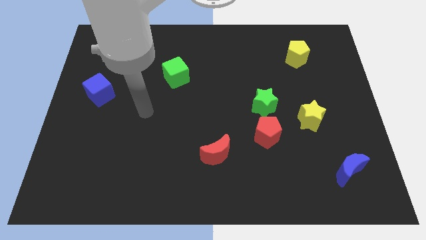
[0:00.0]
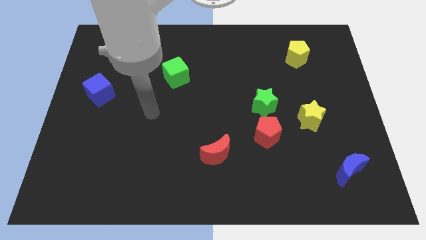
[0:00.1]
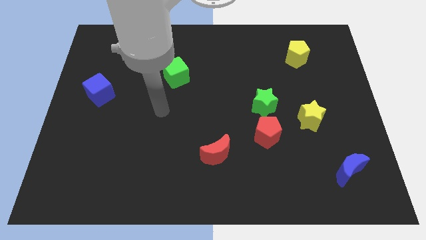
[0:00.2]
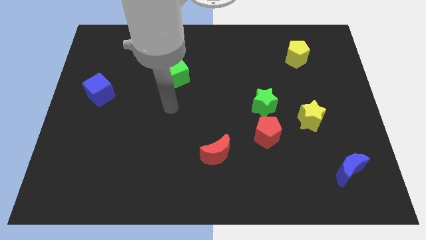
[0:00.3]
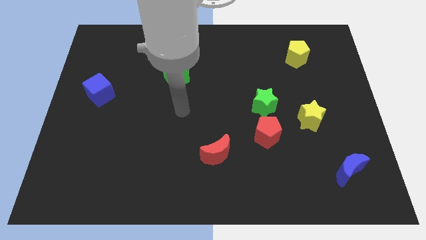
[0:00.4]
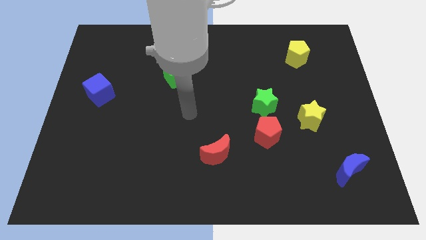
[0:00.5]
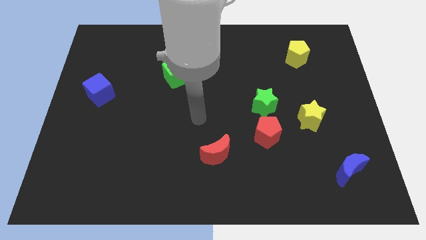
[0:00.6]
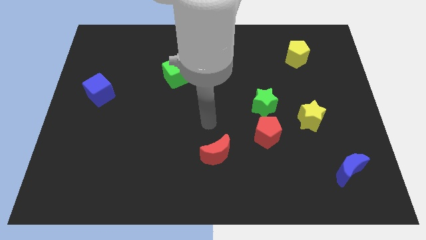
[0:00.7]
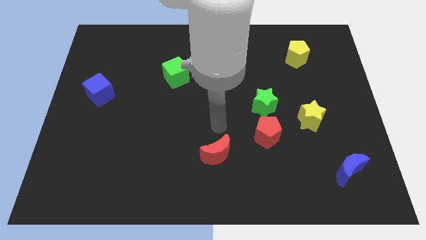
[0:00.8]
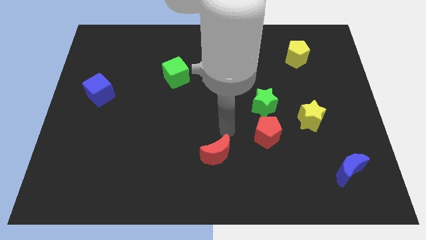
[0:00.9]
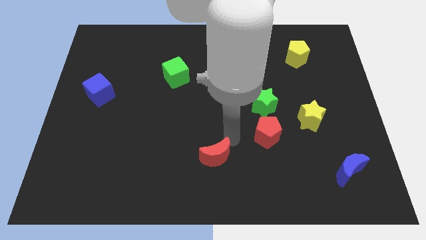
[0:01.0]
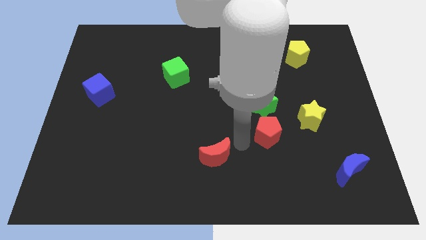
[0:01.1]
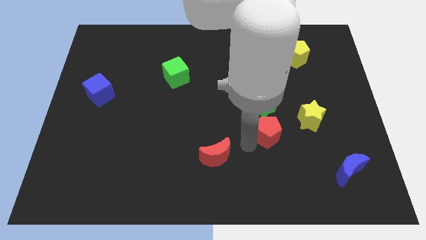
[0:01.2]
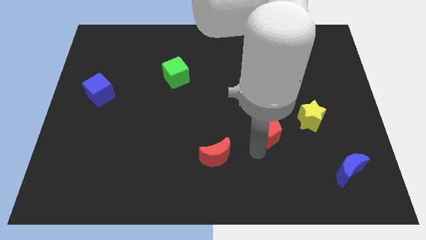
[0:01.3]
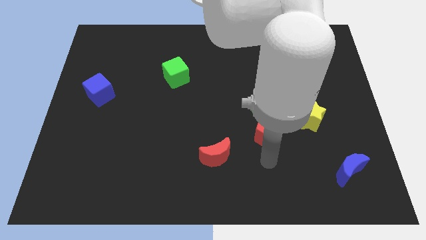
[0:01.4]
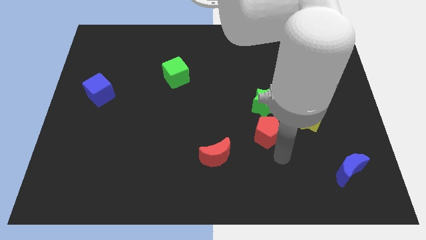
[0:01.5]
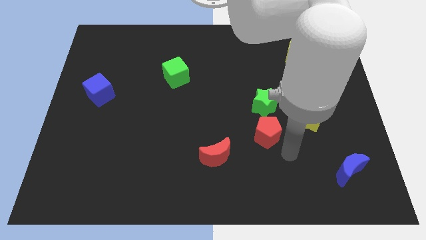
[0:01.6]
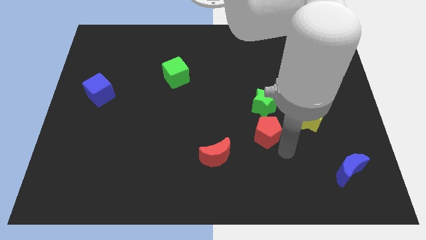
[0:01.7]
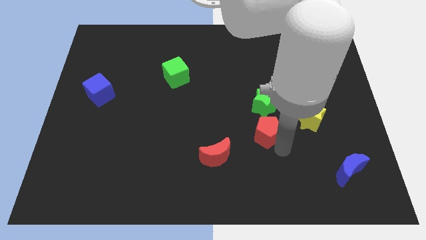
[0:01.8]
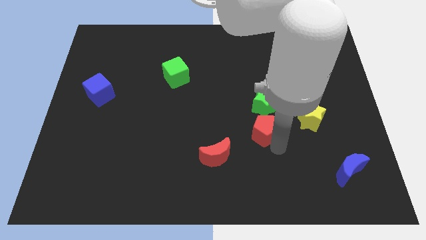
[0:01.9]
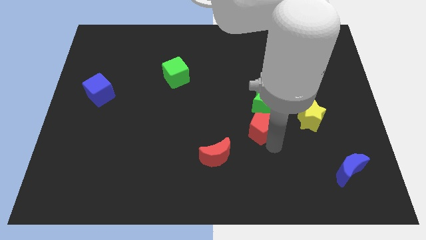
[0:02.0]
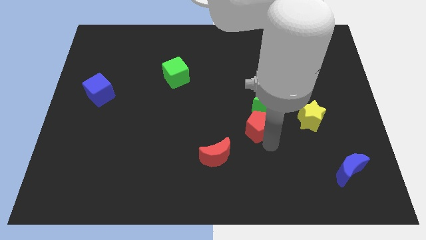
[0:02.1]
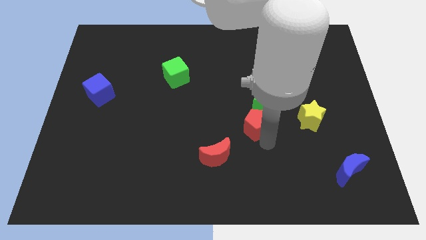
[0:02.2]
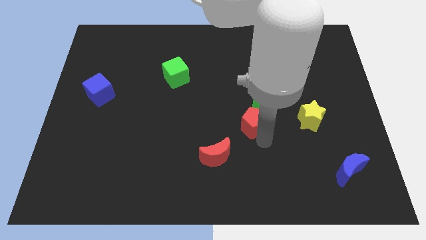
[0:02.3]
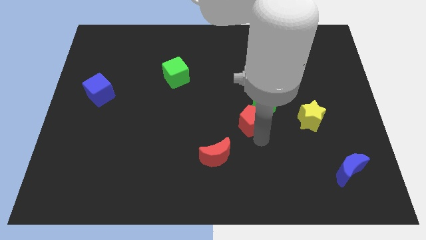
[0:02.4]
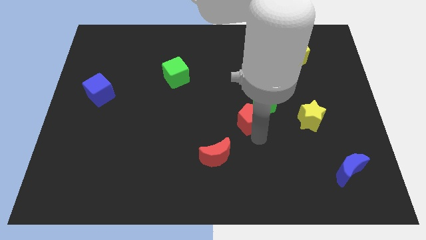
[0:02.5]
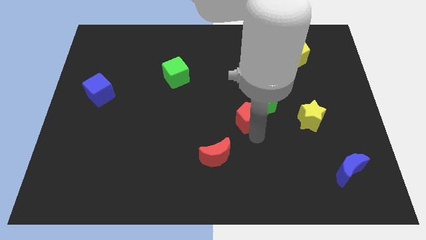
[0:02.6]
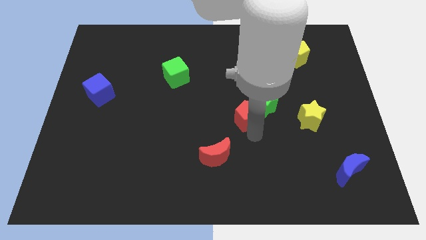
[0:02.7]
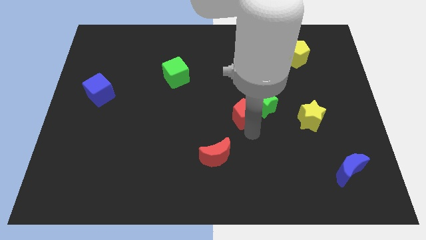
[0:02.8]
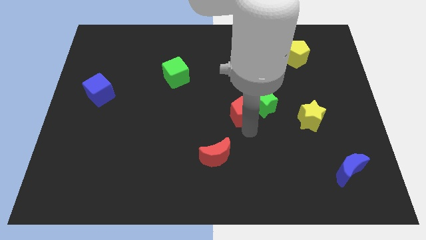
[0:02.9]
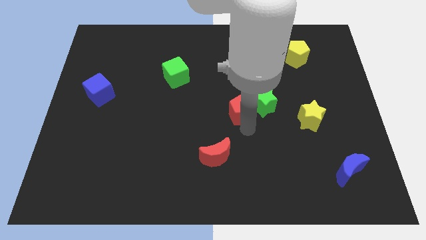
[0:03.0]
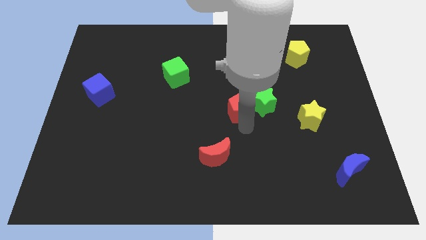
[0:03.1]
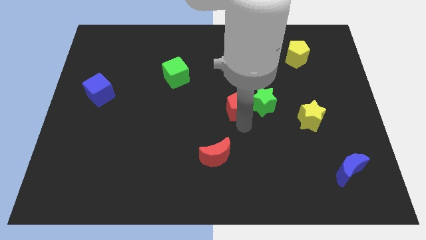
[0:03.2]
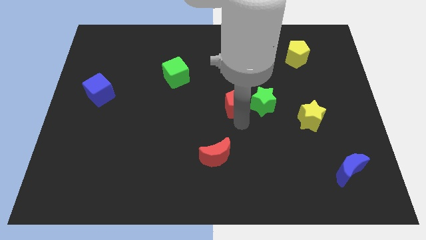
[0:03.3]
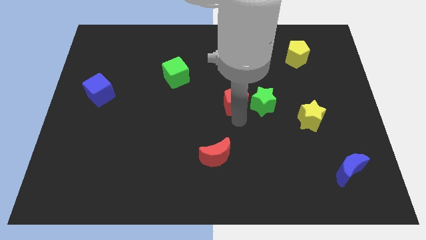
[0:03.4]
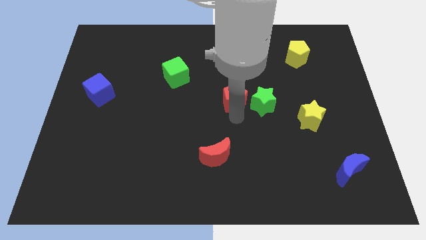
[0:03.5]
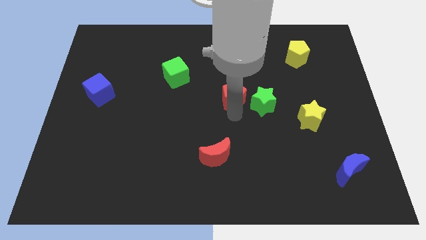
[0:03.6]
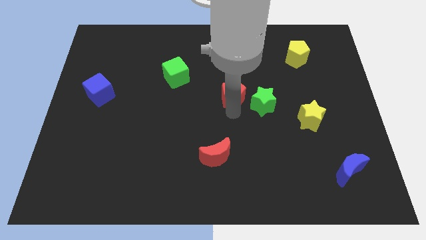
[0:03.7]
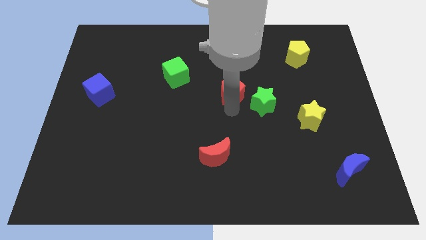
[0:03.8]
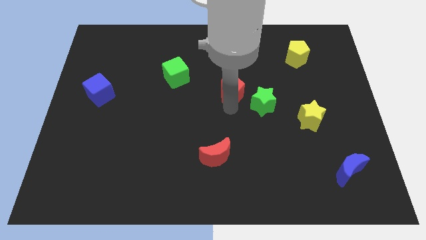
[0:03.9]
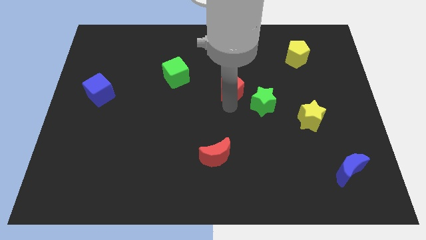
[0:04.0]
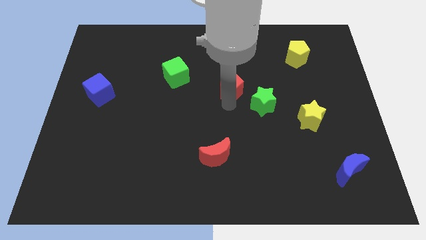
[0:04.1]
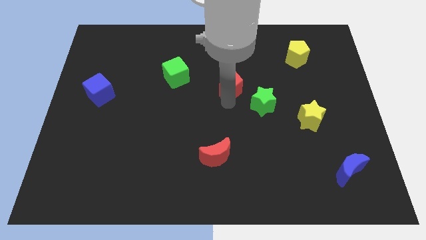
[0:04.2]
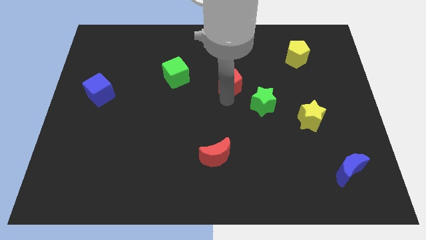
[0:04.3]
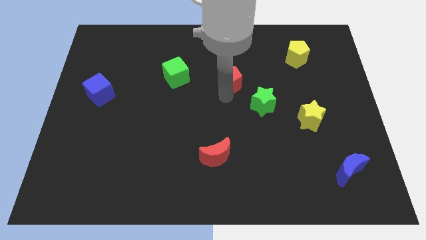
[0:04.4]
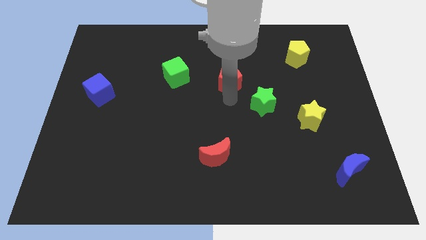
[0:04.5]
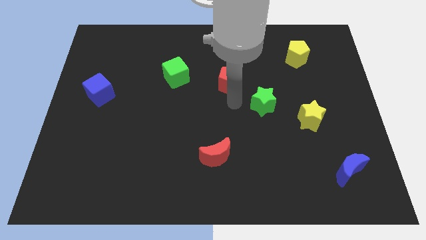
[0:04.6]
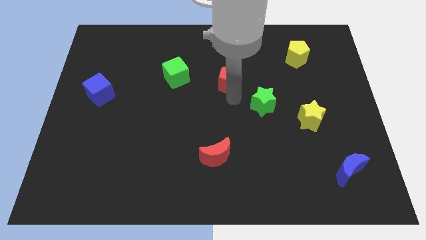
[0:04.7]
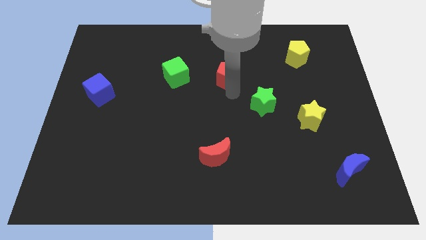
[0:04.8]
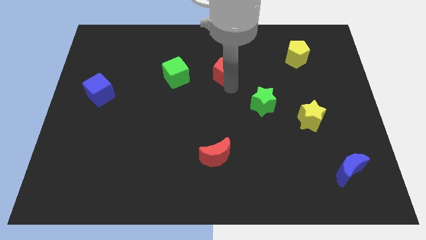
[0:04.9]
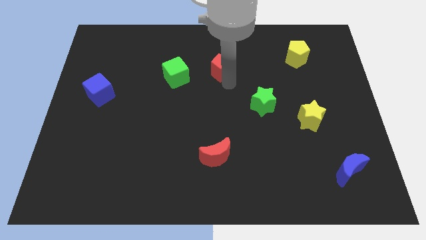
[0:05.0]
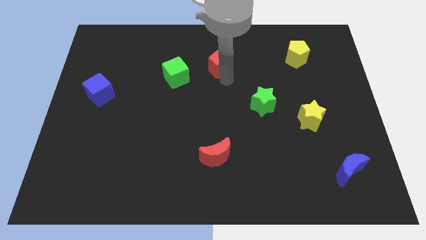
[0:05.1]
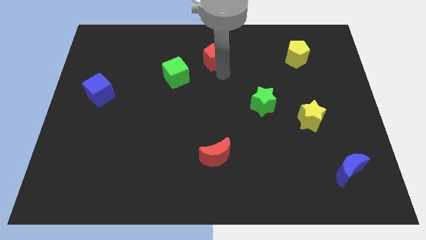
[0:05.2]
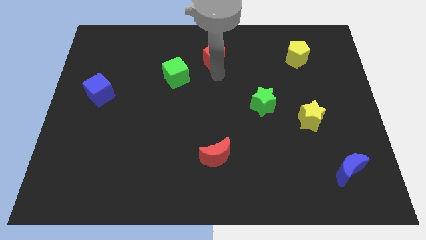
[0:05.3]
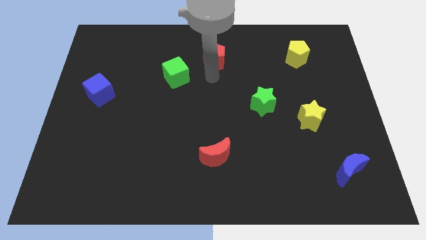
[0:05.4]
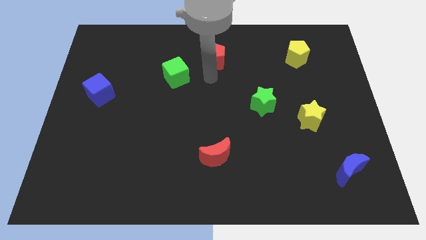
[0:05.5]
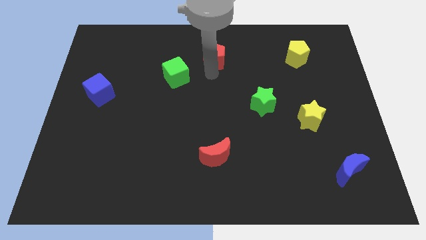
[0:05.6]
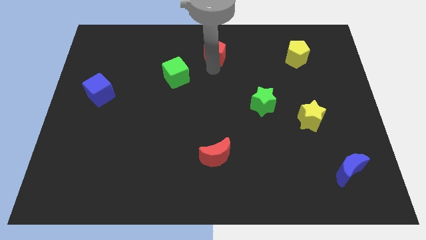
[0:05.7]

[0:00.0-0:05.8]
push the red pentagon to the top

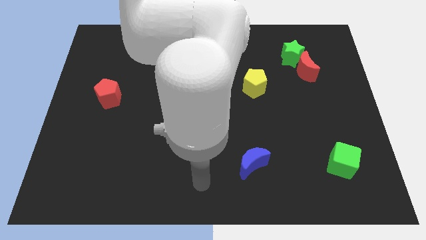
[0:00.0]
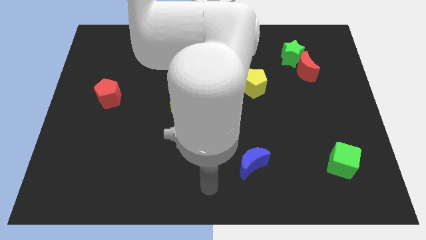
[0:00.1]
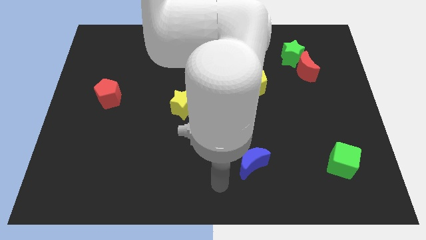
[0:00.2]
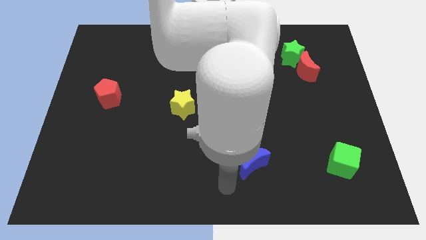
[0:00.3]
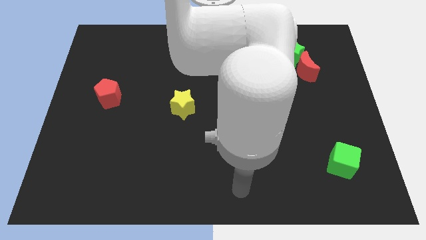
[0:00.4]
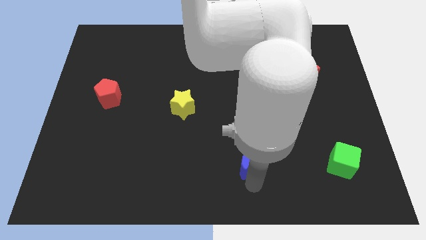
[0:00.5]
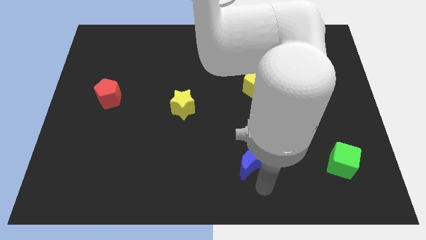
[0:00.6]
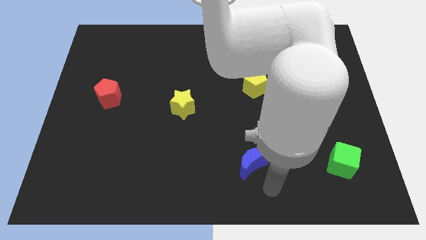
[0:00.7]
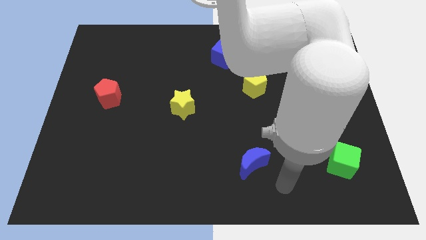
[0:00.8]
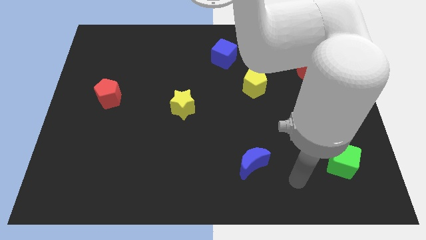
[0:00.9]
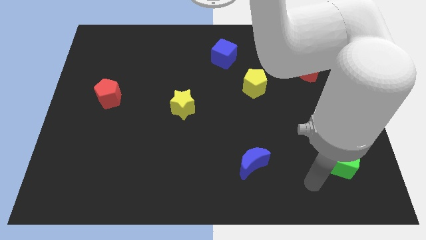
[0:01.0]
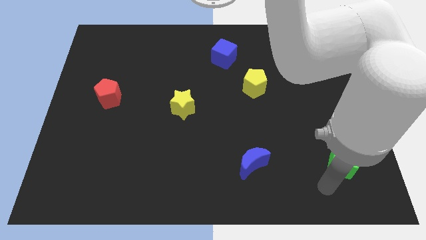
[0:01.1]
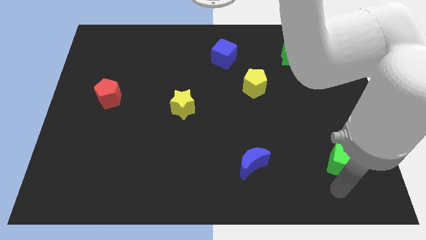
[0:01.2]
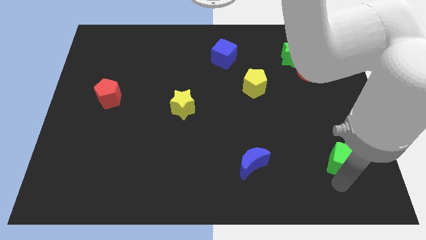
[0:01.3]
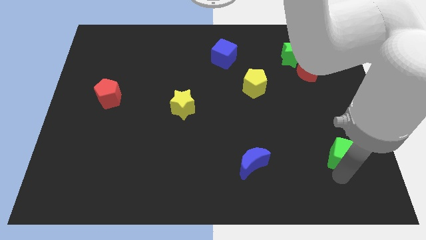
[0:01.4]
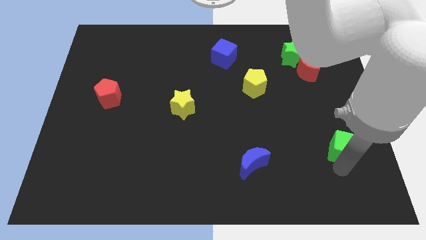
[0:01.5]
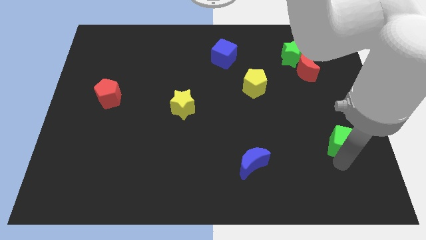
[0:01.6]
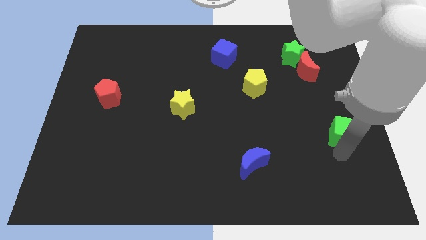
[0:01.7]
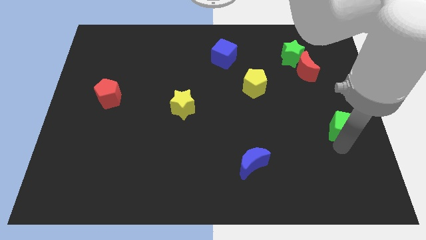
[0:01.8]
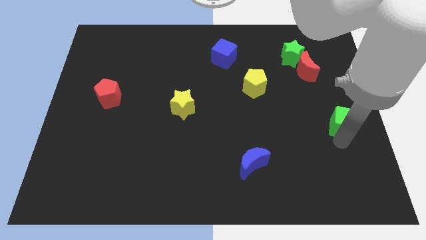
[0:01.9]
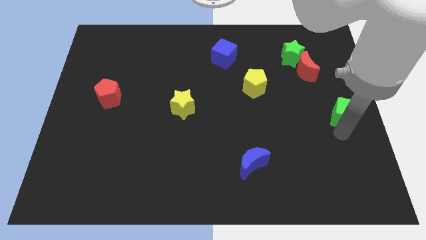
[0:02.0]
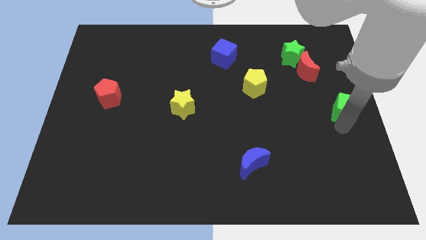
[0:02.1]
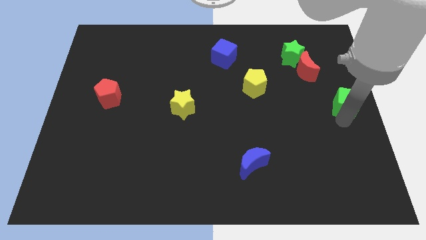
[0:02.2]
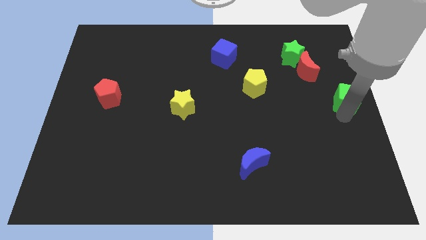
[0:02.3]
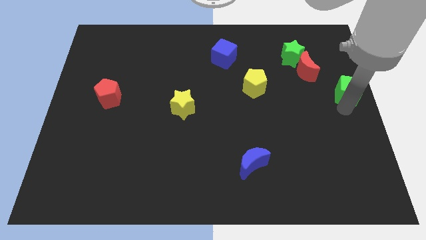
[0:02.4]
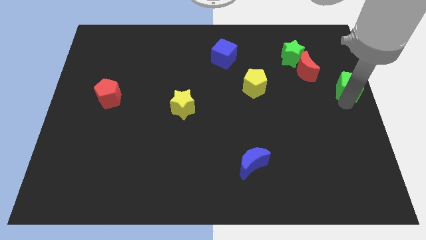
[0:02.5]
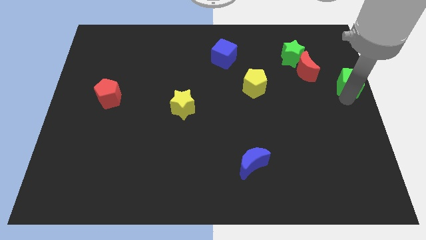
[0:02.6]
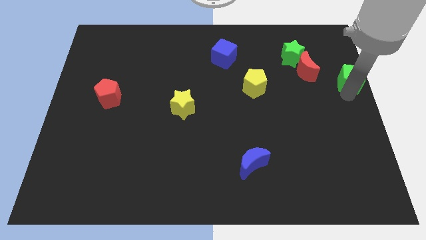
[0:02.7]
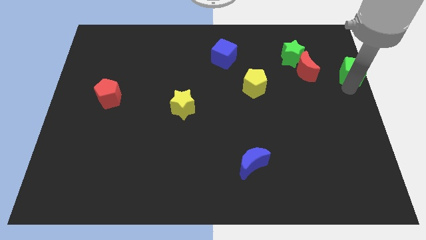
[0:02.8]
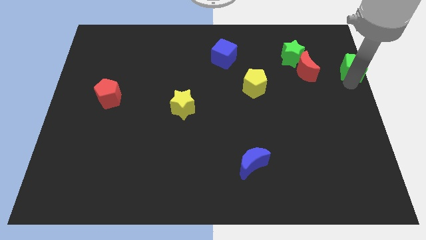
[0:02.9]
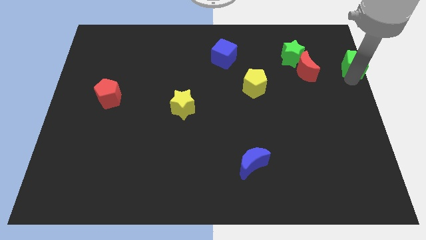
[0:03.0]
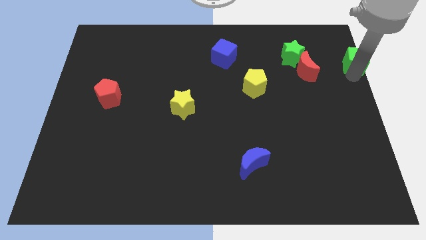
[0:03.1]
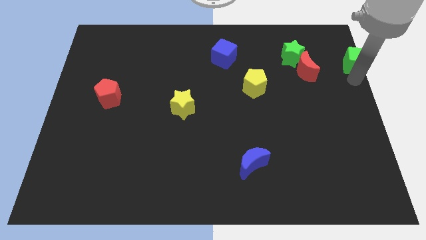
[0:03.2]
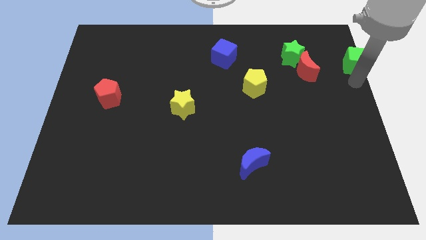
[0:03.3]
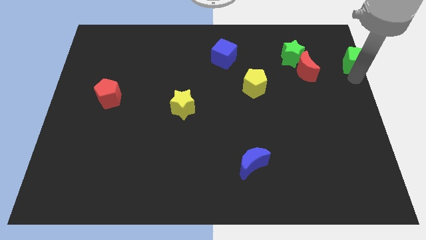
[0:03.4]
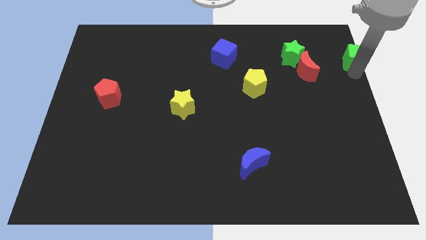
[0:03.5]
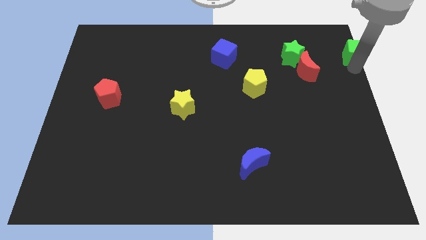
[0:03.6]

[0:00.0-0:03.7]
push the green cube to the top right corner
